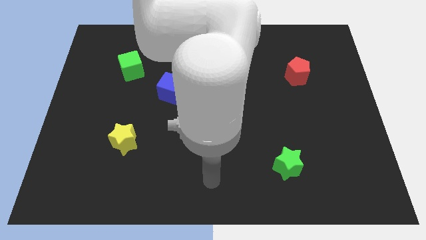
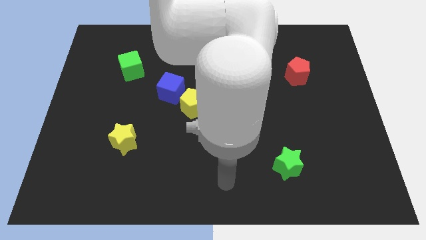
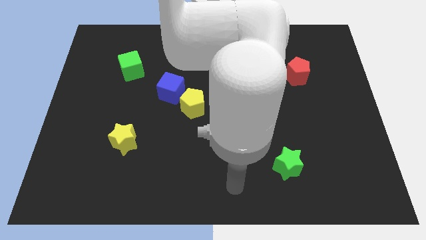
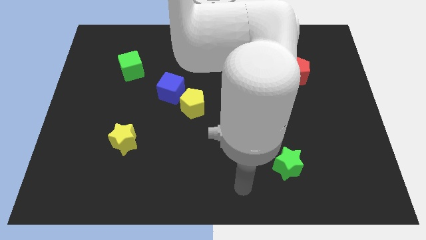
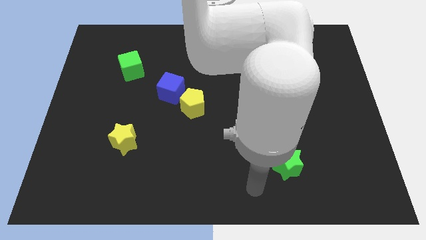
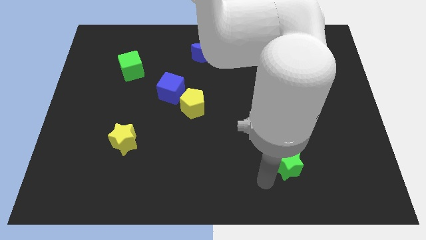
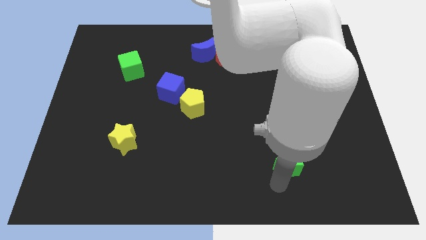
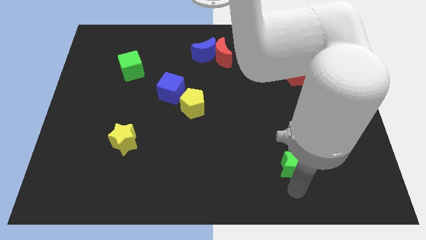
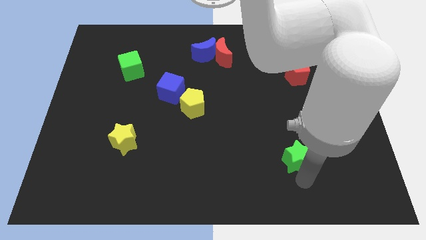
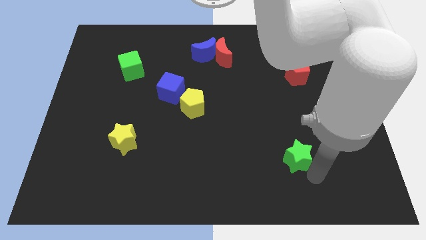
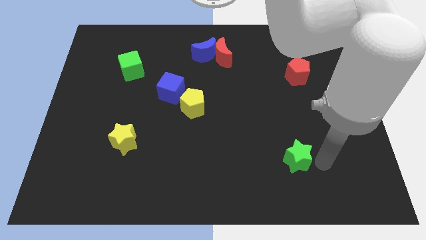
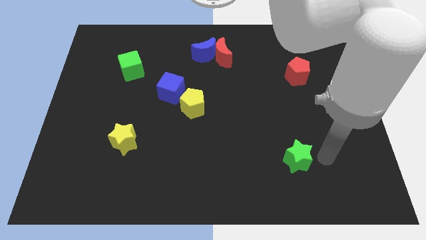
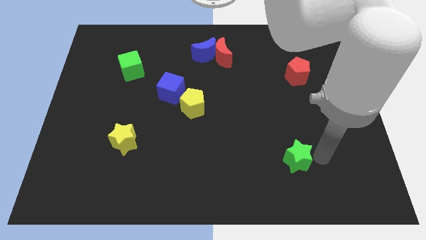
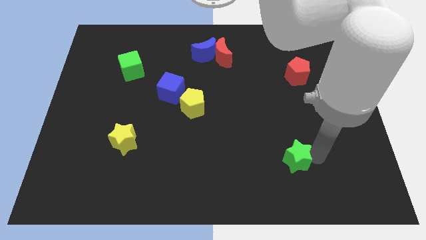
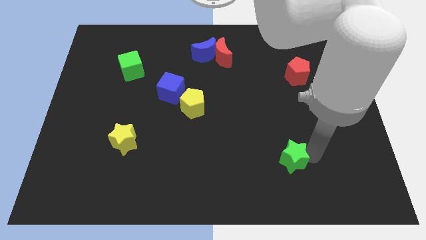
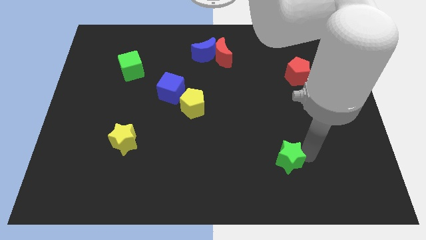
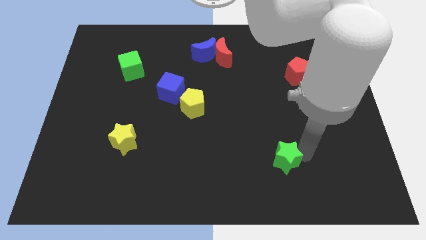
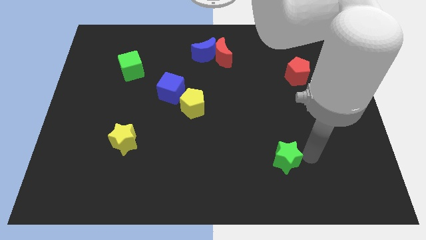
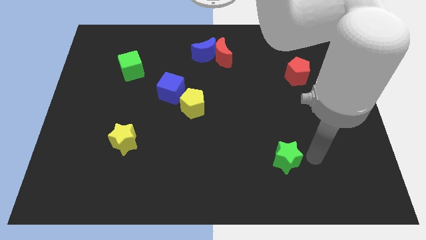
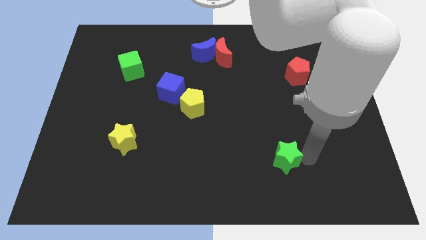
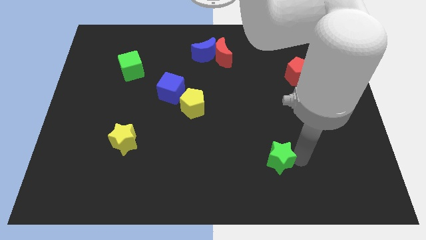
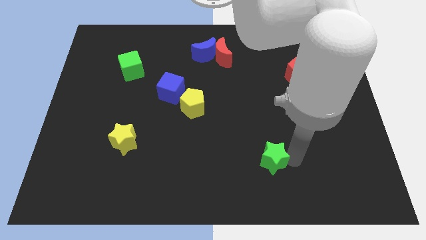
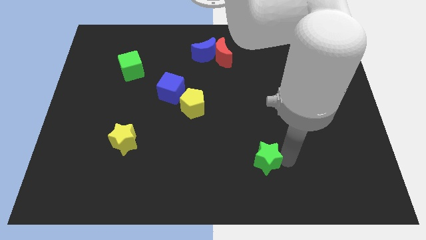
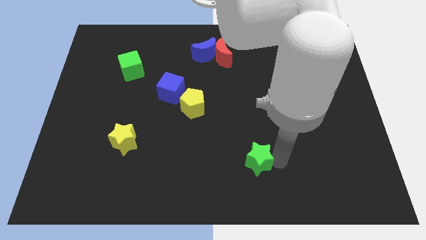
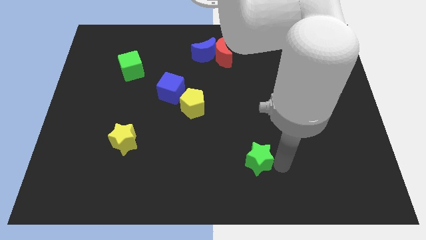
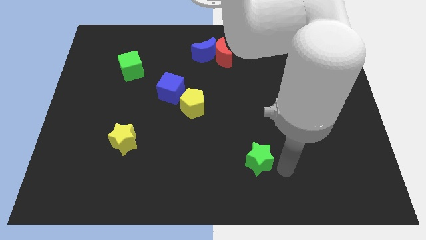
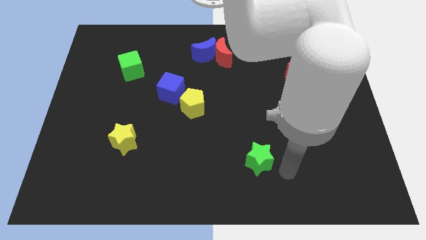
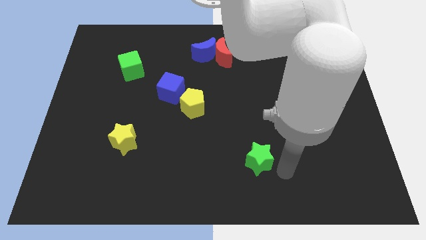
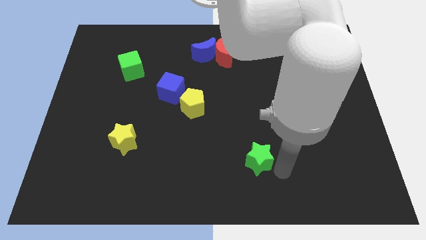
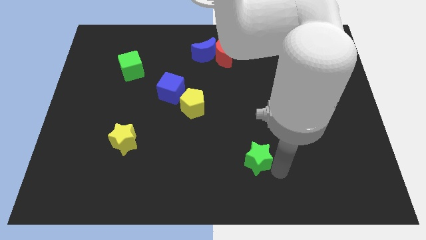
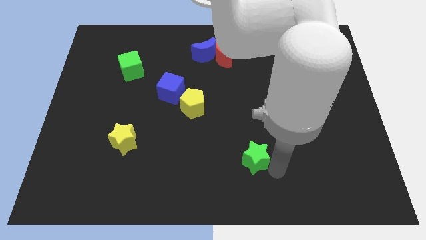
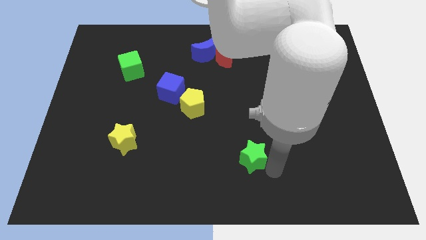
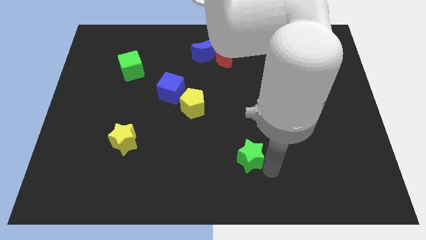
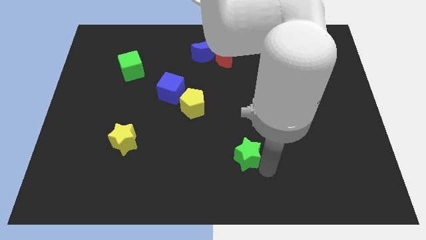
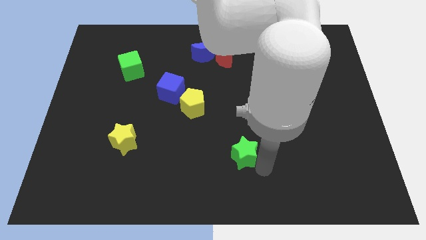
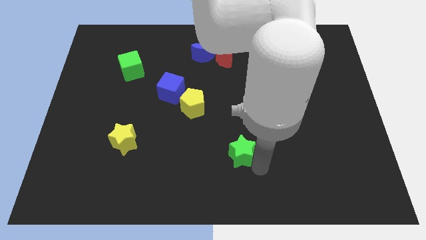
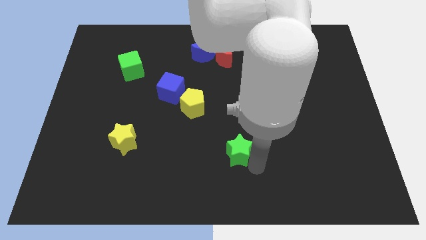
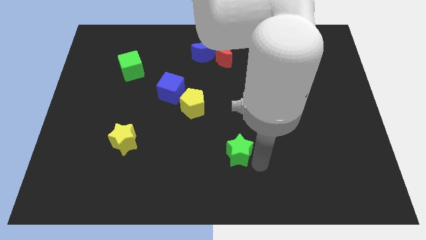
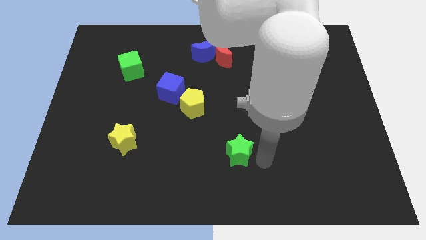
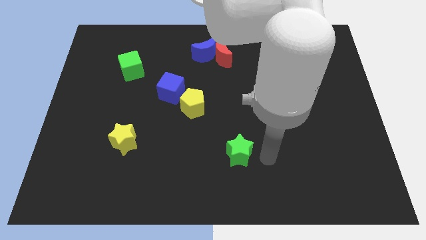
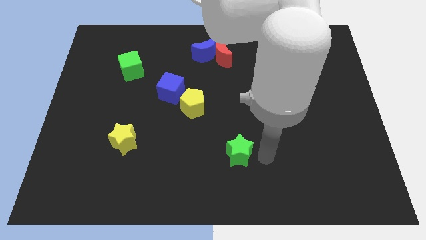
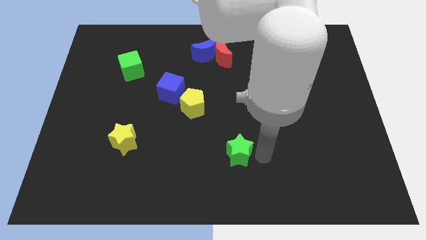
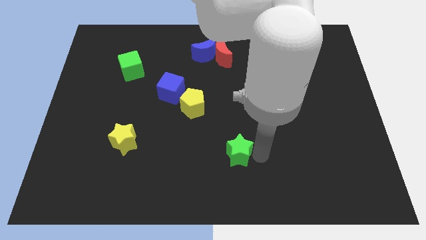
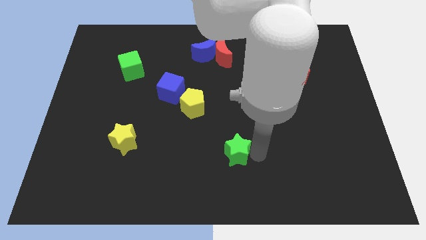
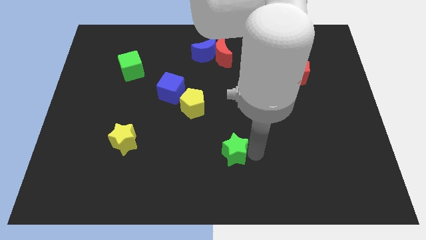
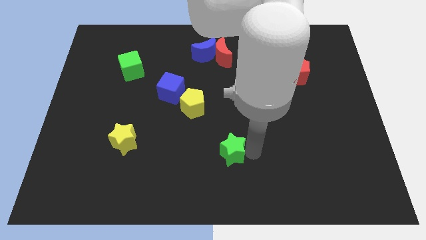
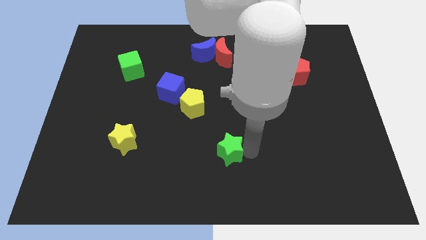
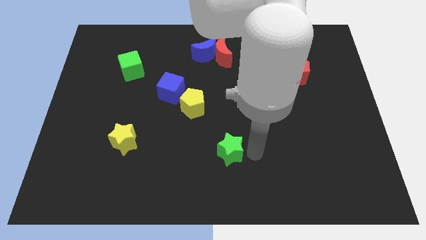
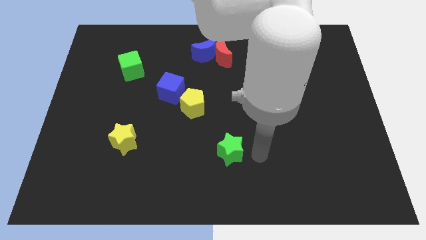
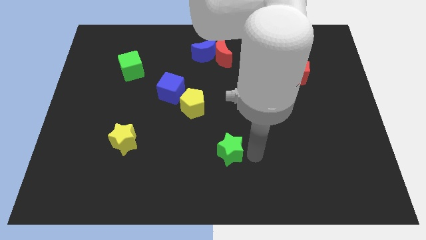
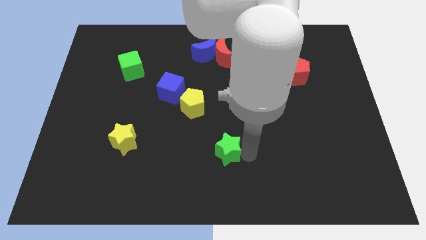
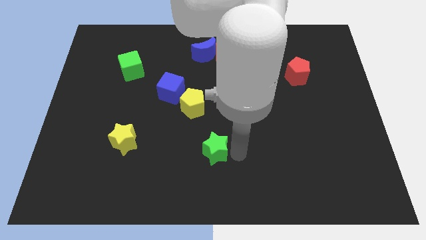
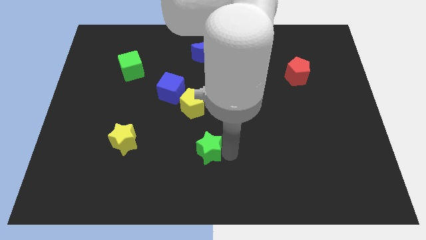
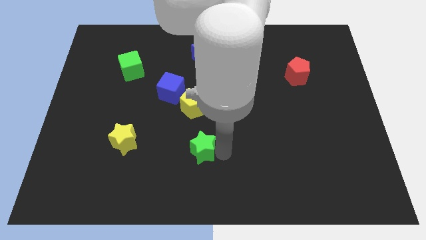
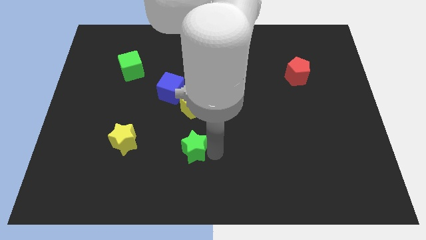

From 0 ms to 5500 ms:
move the green star right of the yellow star

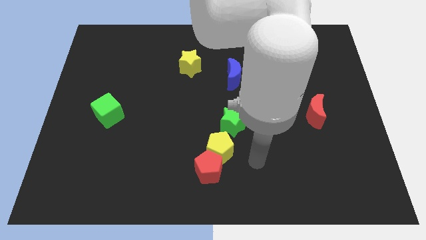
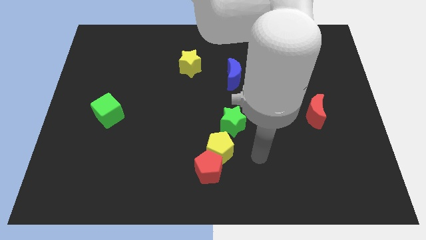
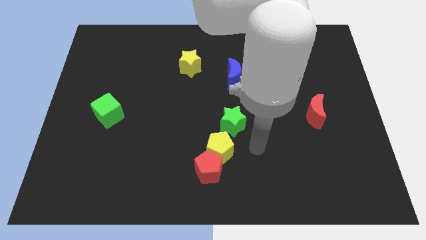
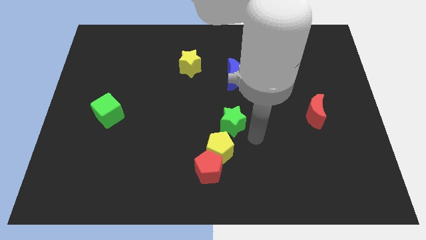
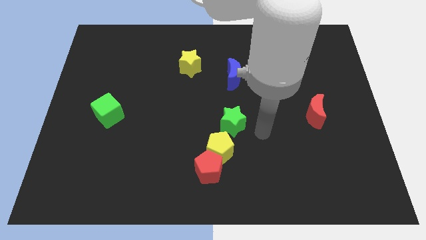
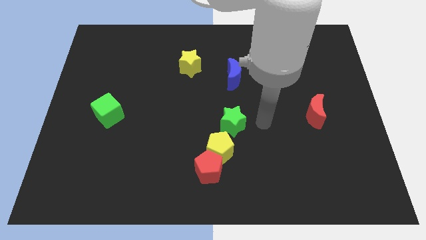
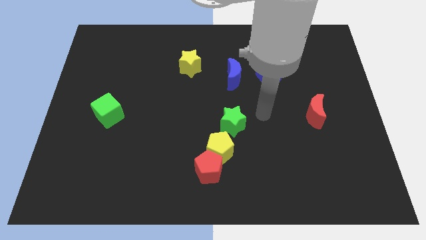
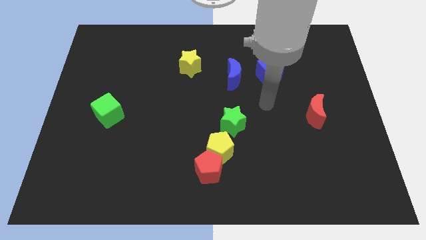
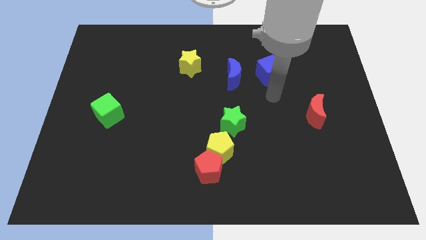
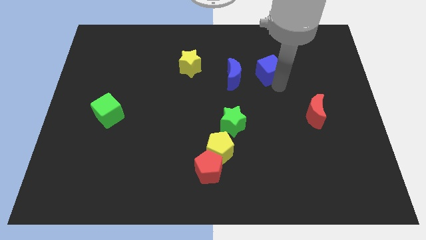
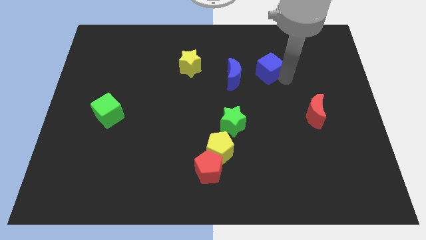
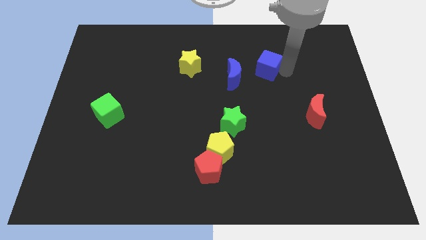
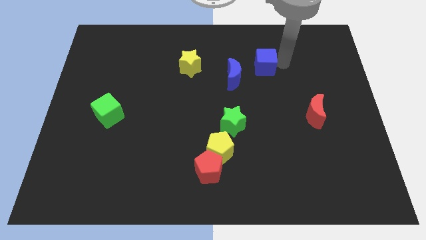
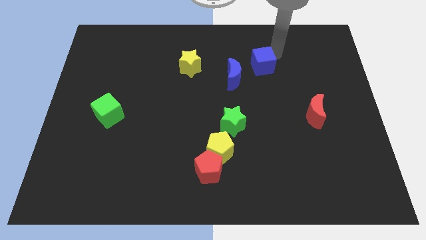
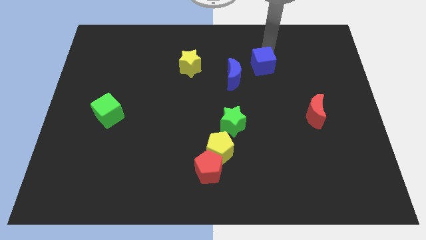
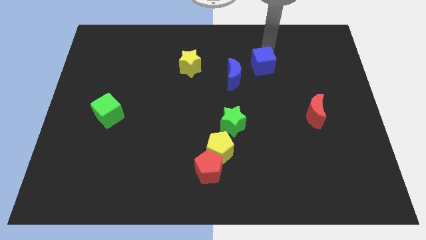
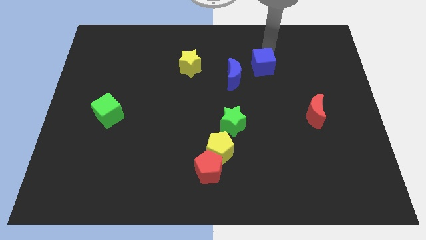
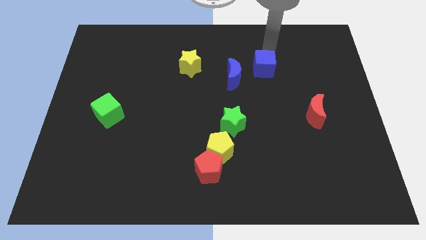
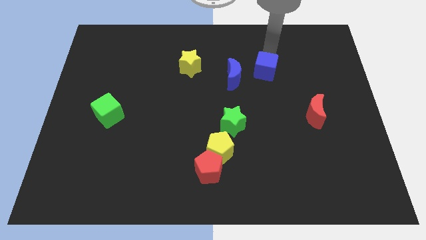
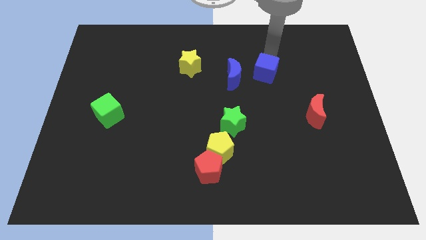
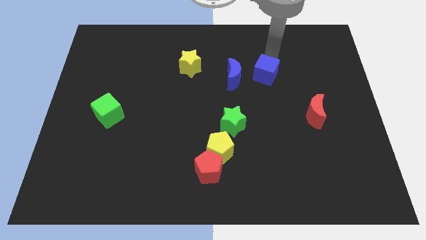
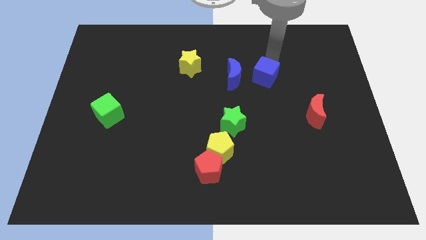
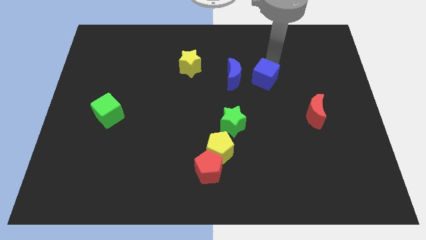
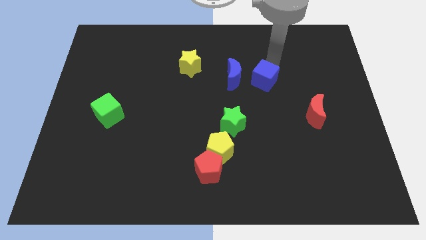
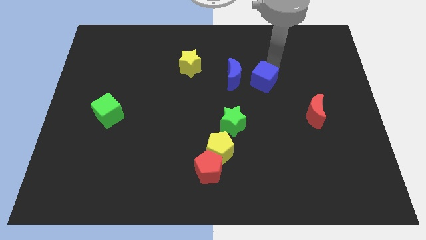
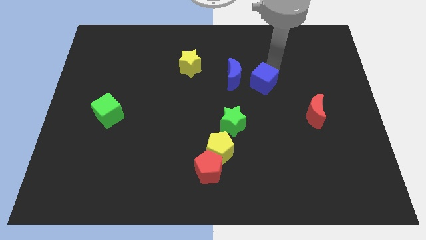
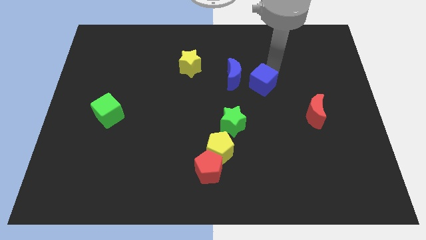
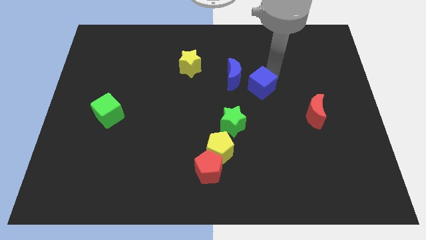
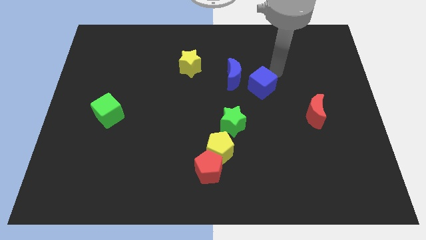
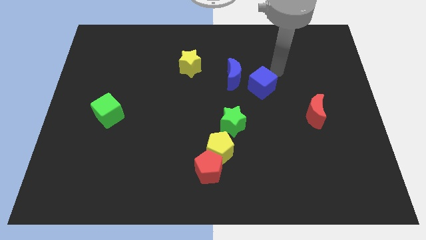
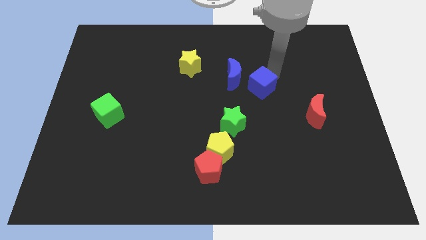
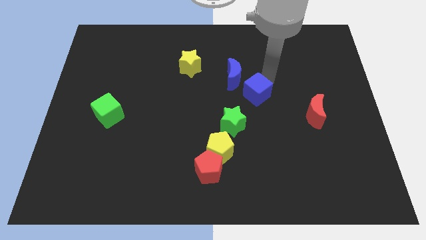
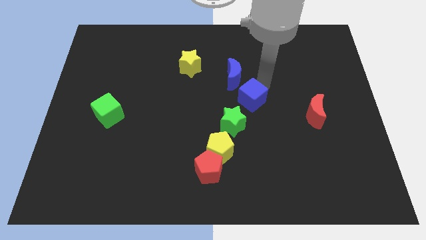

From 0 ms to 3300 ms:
push the blue cube to the bottom side of the blue moon
